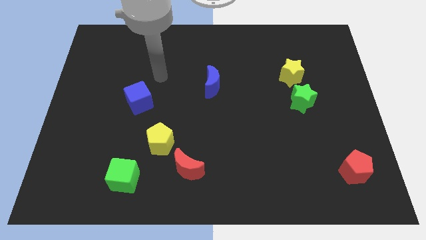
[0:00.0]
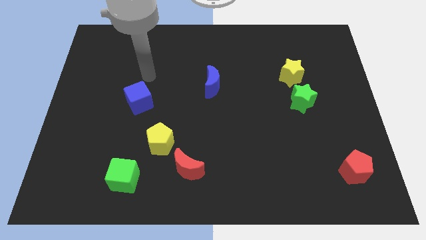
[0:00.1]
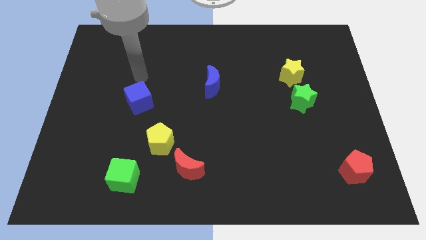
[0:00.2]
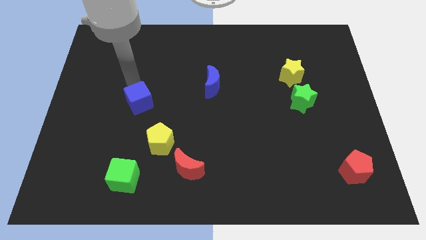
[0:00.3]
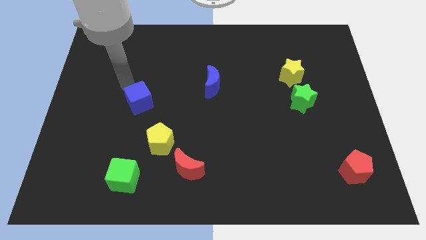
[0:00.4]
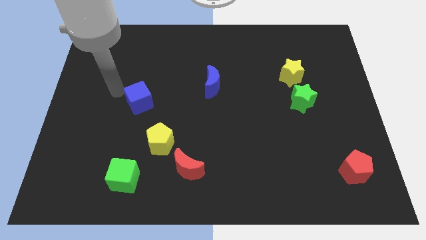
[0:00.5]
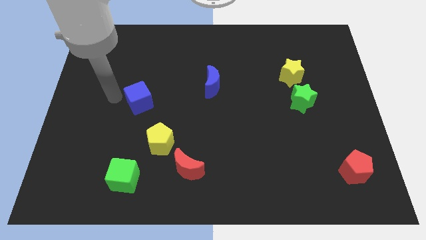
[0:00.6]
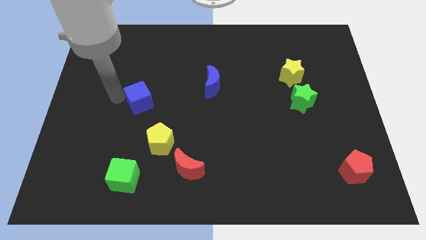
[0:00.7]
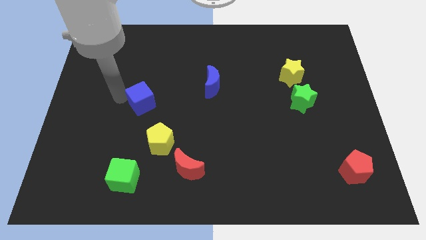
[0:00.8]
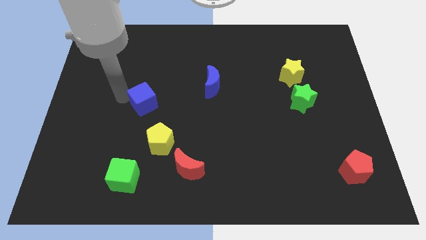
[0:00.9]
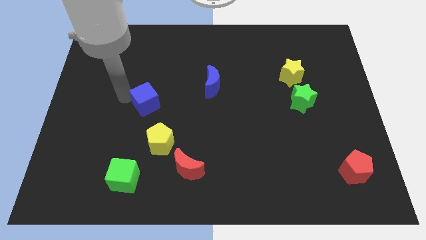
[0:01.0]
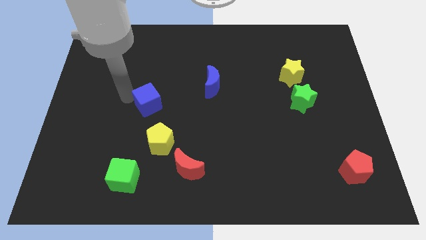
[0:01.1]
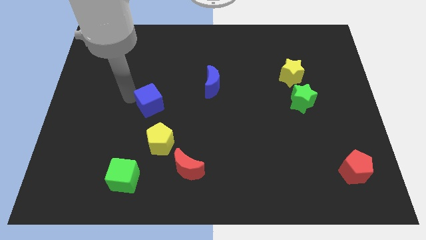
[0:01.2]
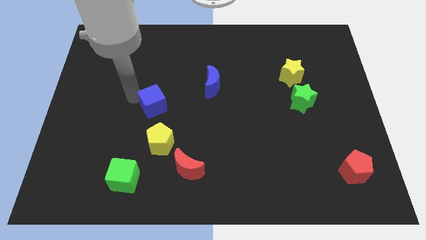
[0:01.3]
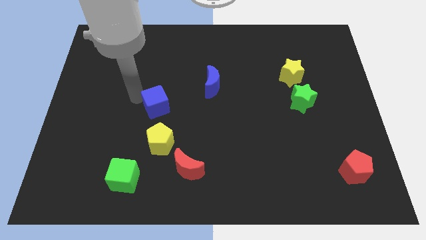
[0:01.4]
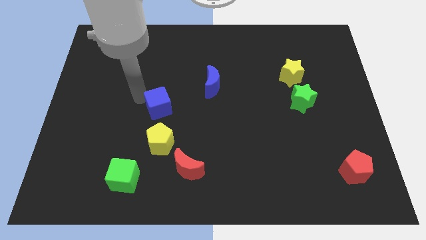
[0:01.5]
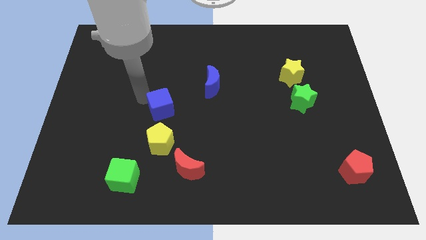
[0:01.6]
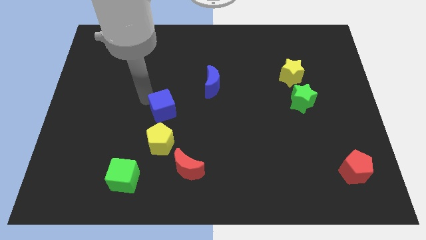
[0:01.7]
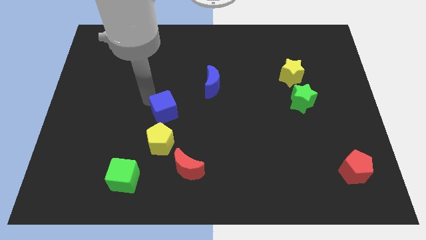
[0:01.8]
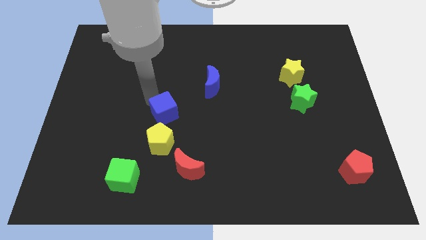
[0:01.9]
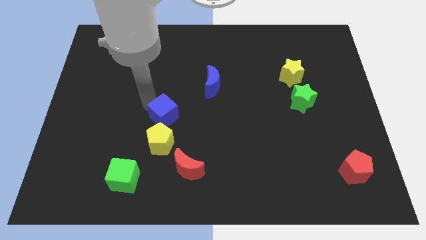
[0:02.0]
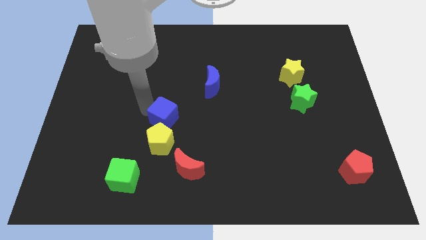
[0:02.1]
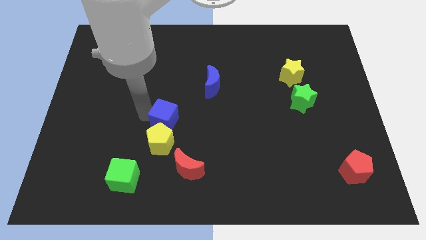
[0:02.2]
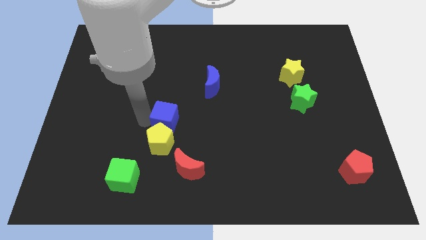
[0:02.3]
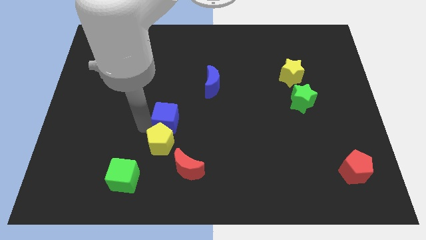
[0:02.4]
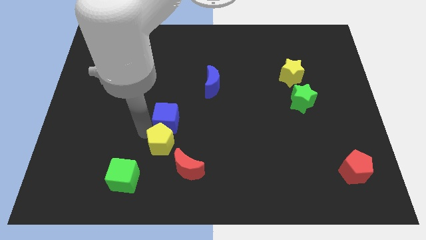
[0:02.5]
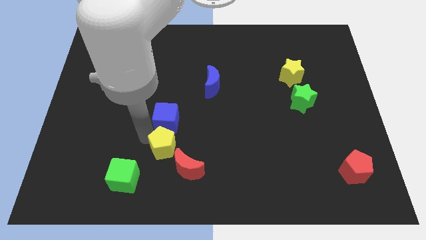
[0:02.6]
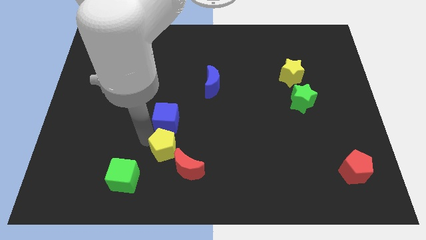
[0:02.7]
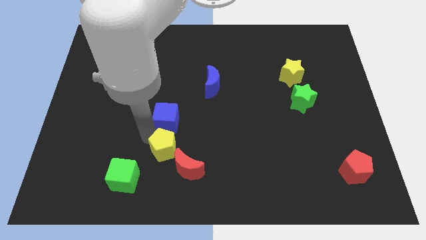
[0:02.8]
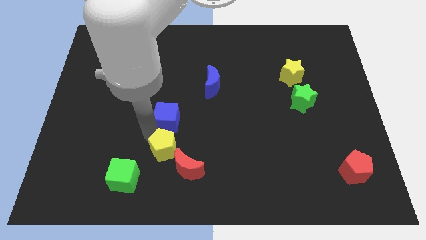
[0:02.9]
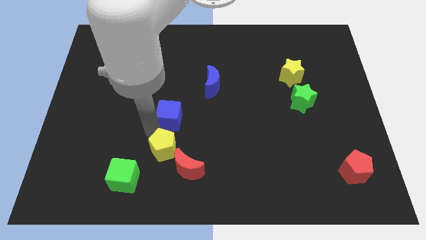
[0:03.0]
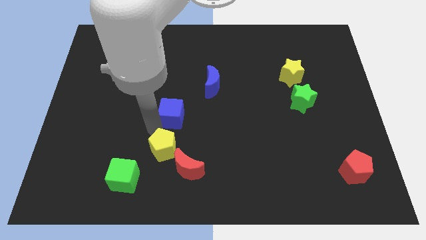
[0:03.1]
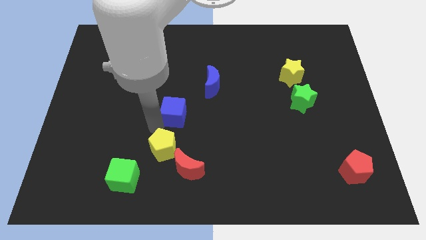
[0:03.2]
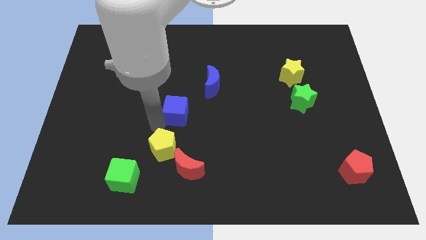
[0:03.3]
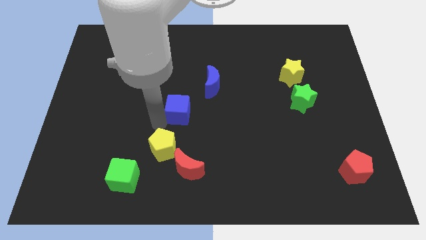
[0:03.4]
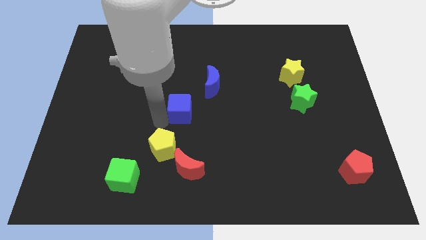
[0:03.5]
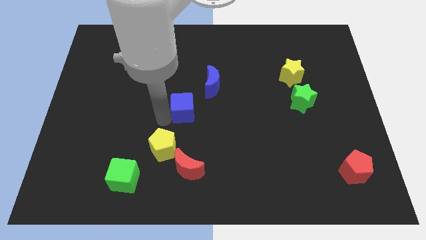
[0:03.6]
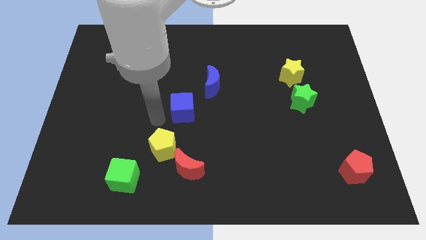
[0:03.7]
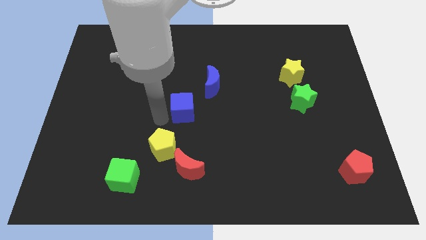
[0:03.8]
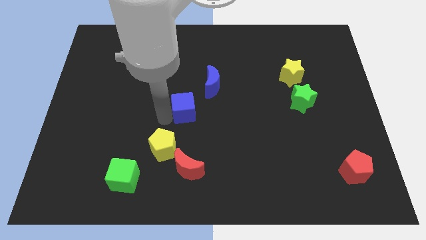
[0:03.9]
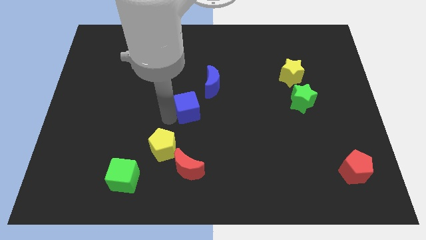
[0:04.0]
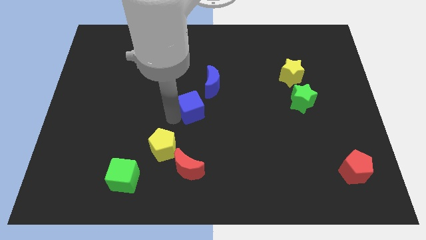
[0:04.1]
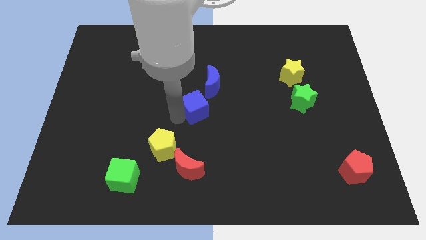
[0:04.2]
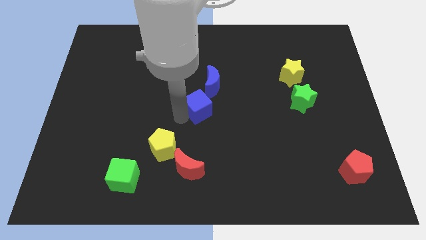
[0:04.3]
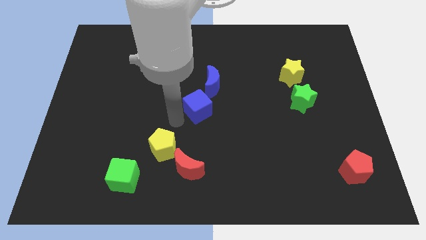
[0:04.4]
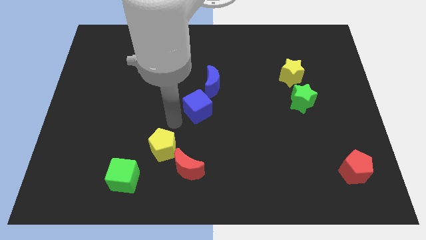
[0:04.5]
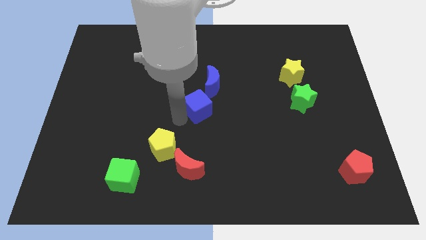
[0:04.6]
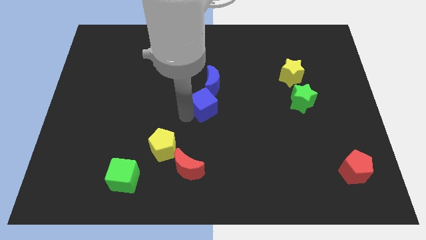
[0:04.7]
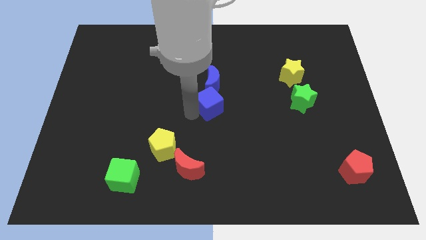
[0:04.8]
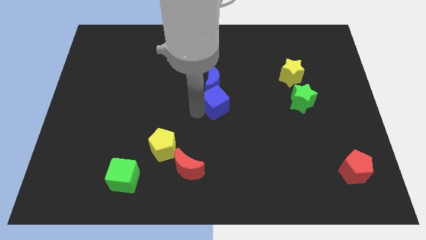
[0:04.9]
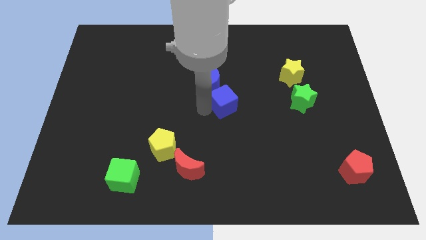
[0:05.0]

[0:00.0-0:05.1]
push the blue cube to the right

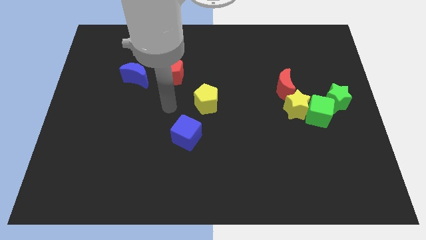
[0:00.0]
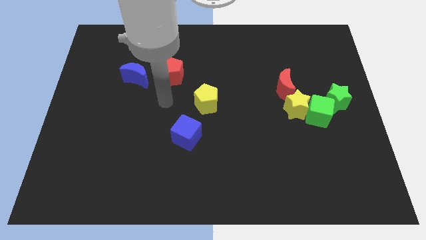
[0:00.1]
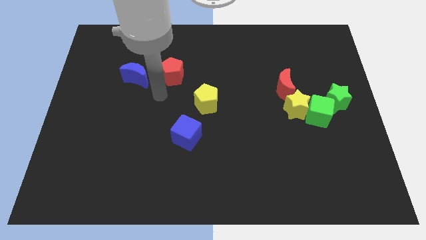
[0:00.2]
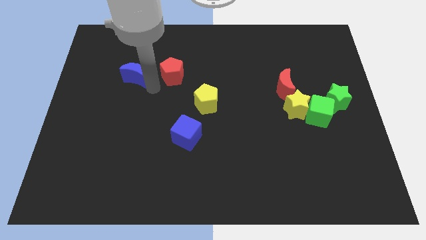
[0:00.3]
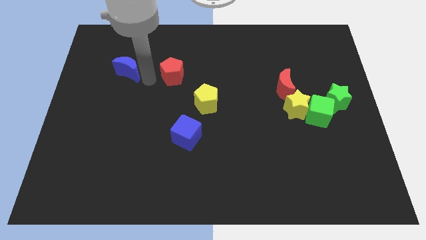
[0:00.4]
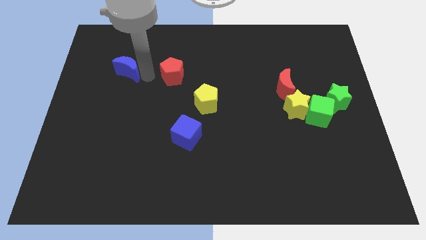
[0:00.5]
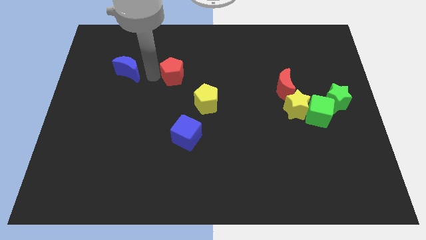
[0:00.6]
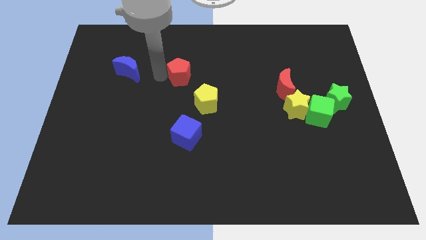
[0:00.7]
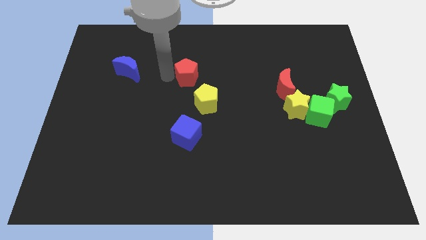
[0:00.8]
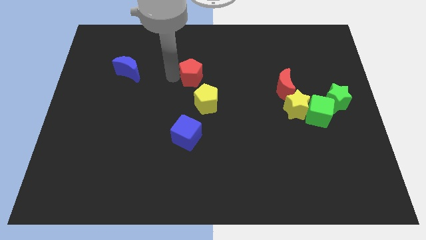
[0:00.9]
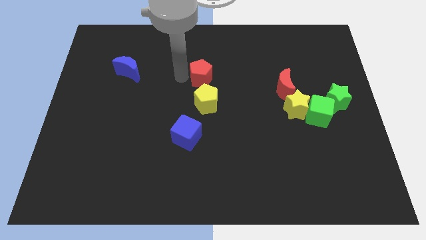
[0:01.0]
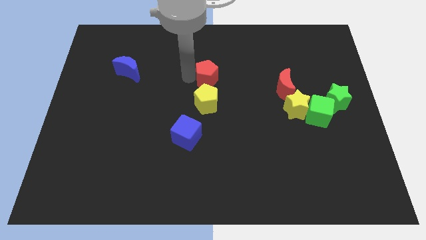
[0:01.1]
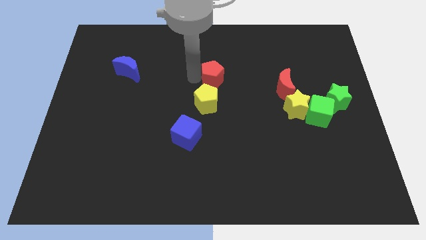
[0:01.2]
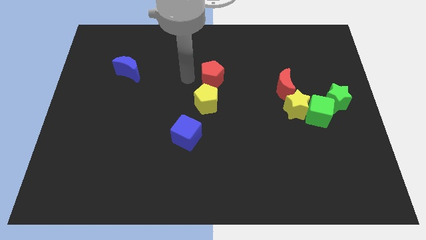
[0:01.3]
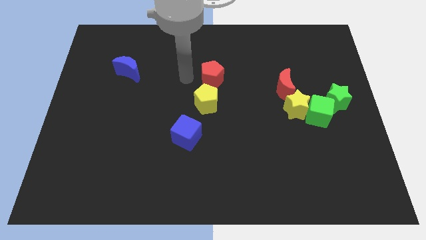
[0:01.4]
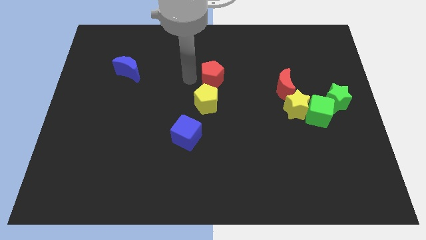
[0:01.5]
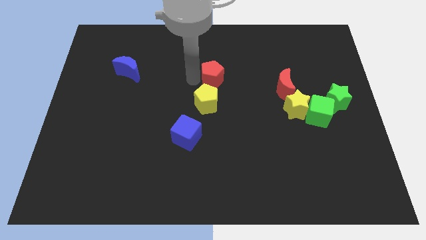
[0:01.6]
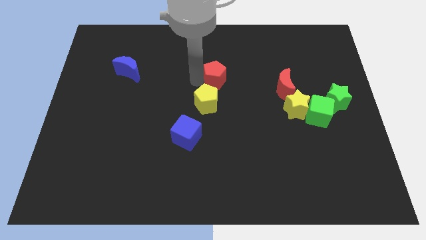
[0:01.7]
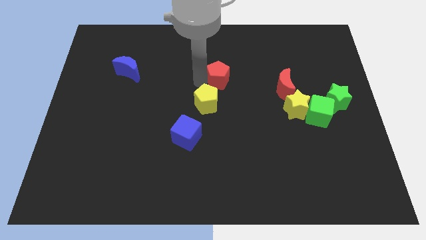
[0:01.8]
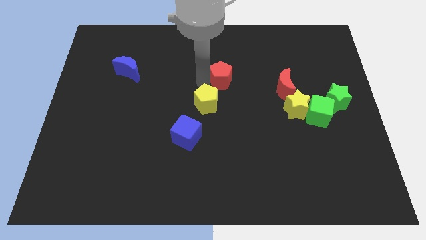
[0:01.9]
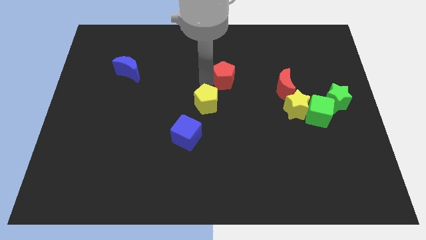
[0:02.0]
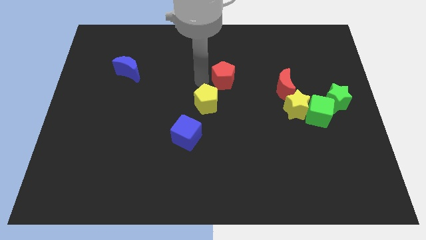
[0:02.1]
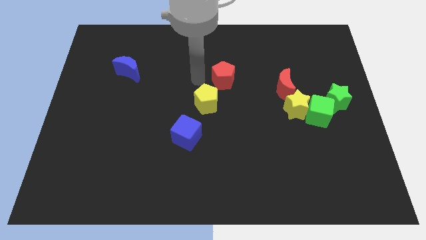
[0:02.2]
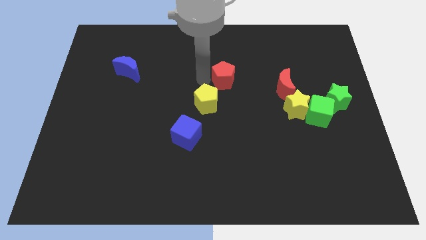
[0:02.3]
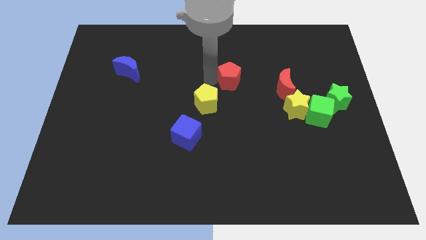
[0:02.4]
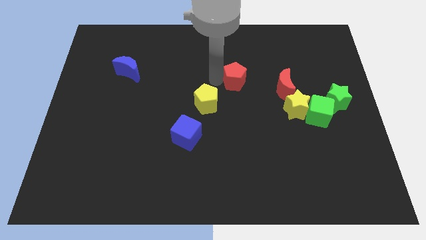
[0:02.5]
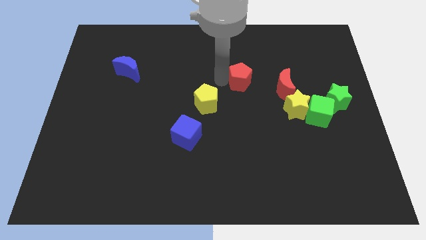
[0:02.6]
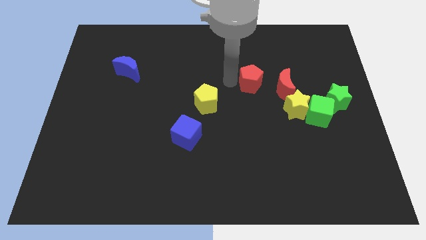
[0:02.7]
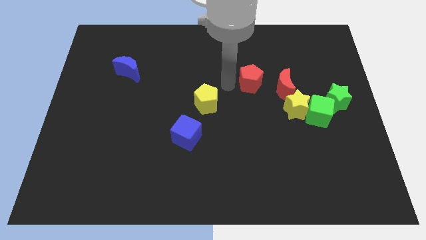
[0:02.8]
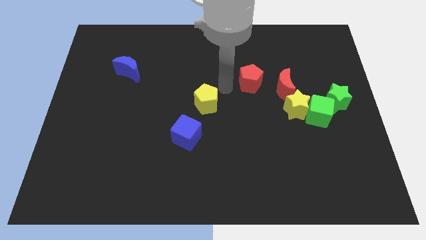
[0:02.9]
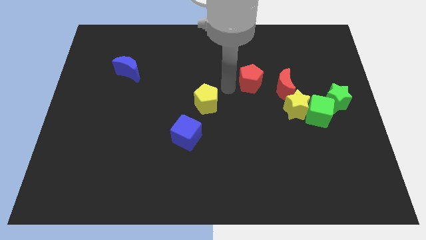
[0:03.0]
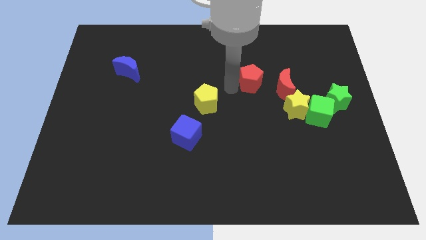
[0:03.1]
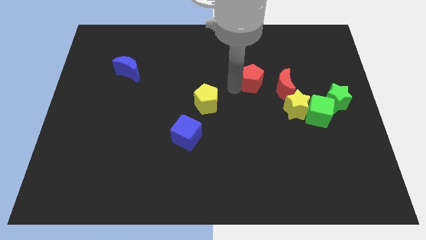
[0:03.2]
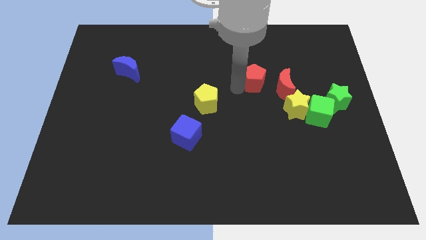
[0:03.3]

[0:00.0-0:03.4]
slide the red pentagon to the right
